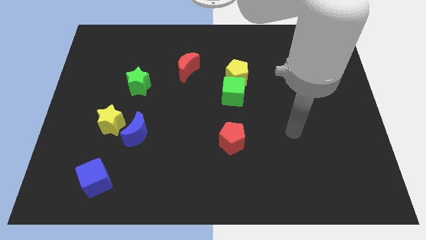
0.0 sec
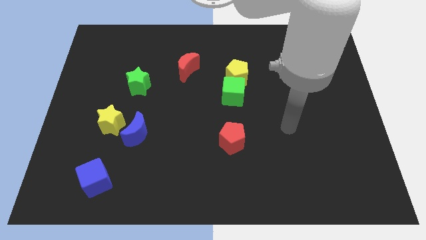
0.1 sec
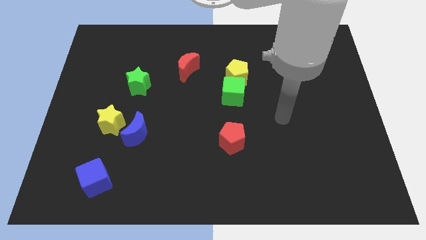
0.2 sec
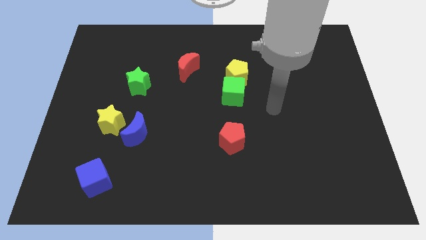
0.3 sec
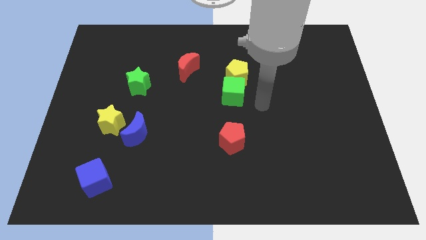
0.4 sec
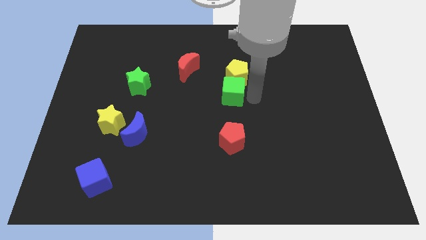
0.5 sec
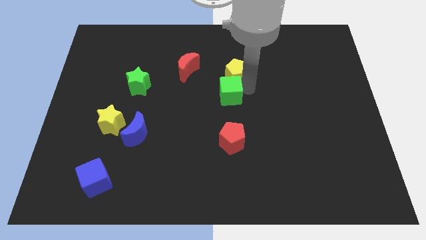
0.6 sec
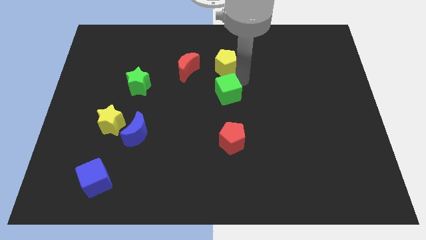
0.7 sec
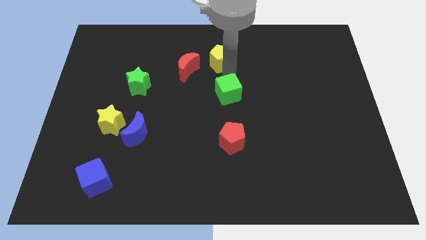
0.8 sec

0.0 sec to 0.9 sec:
separate the green cube from the yellow pentagon

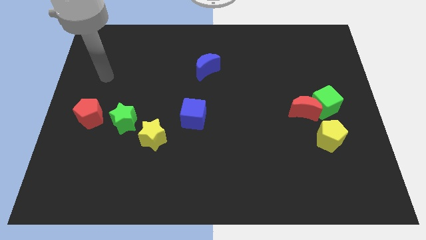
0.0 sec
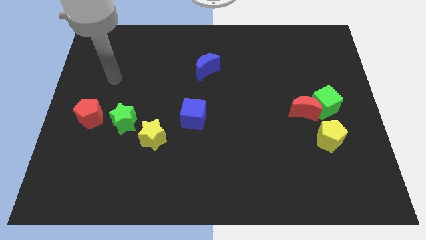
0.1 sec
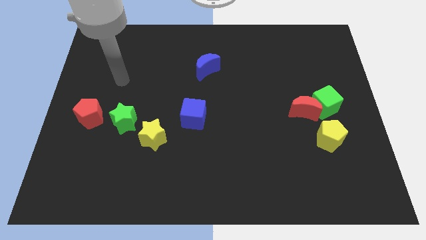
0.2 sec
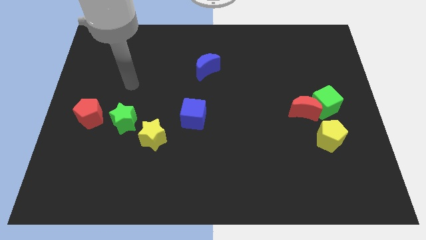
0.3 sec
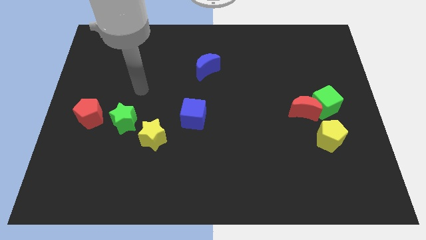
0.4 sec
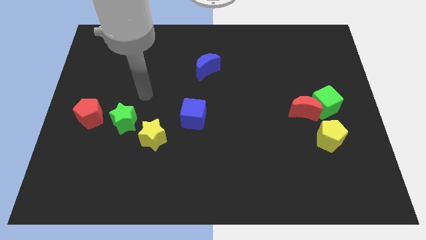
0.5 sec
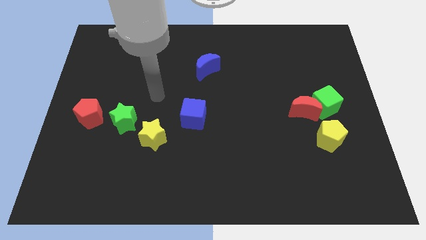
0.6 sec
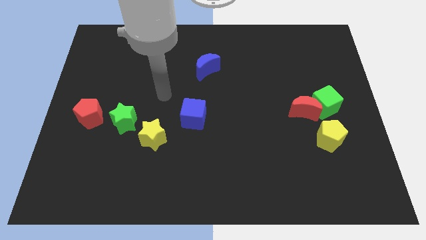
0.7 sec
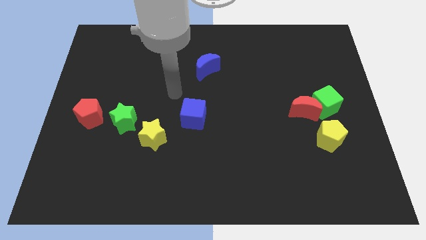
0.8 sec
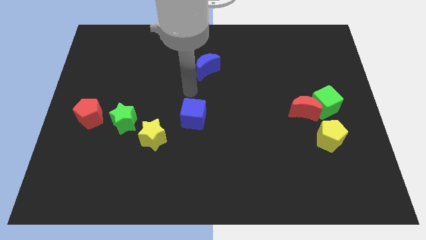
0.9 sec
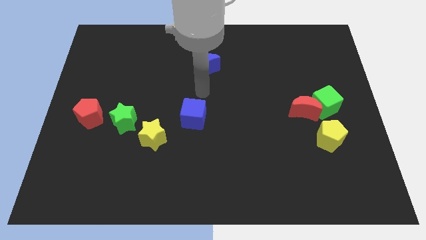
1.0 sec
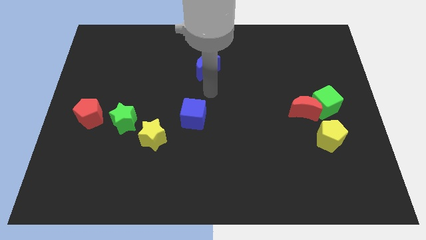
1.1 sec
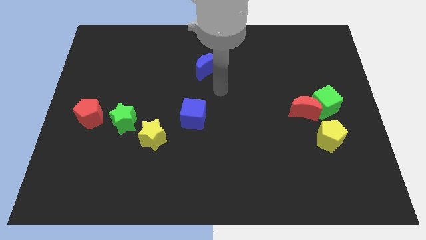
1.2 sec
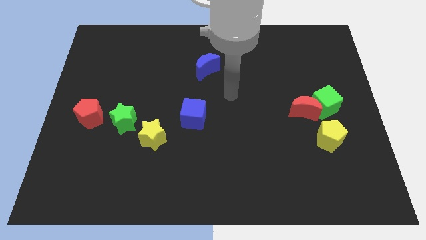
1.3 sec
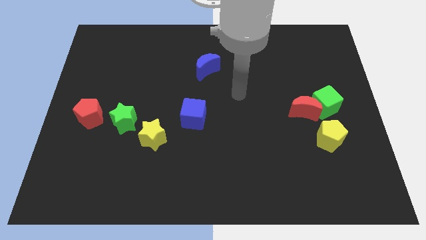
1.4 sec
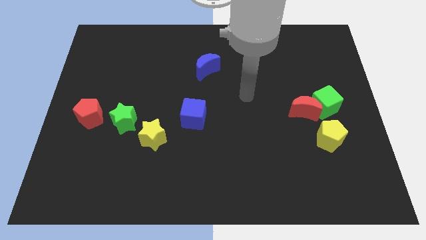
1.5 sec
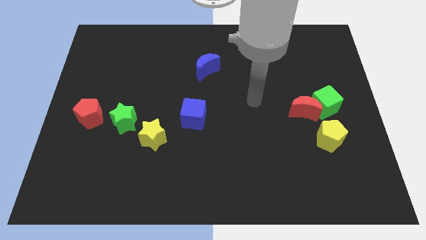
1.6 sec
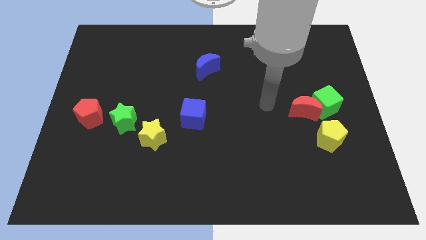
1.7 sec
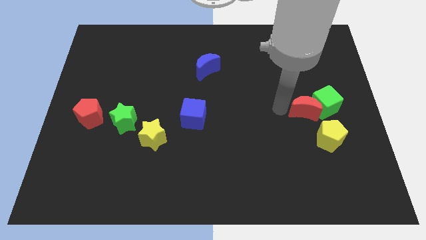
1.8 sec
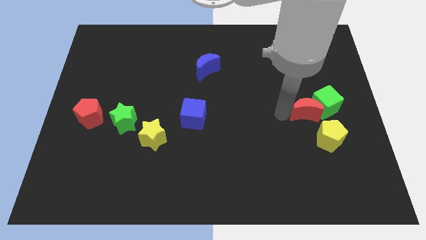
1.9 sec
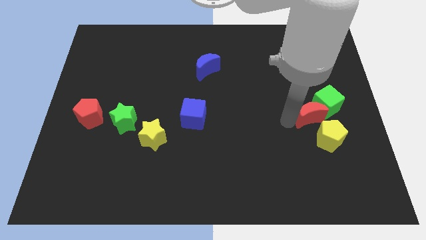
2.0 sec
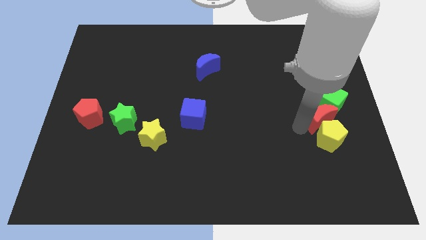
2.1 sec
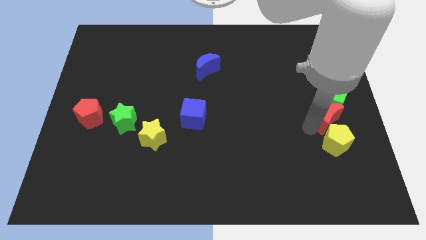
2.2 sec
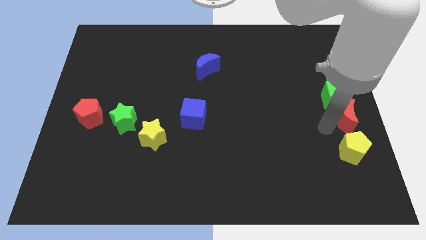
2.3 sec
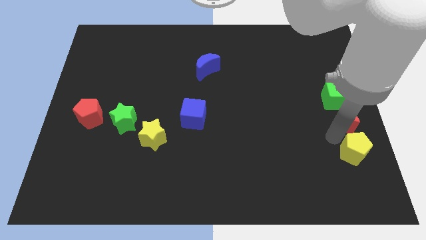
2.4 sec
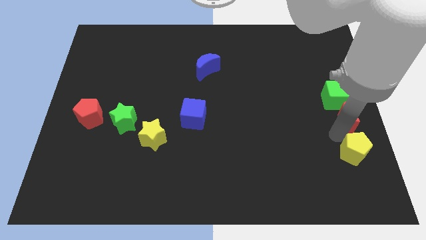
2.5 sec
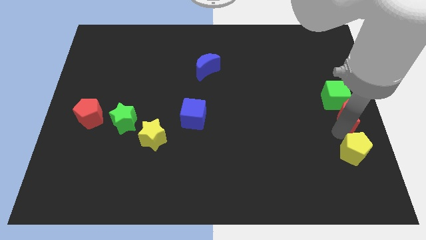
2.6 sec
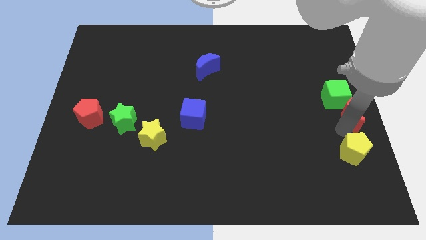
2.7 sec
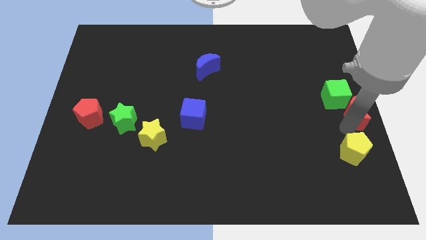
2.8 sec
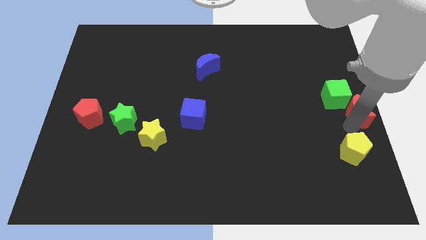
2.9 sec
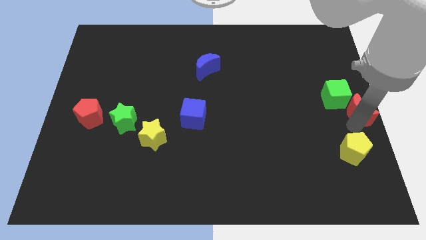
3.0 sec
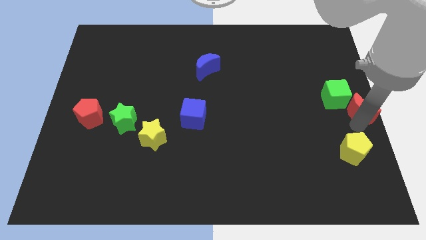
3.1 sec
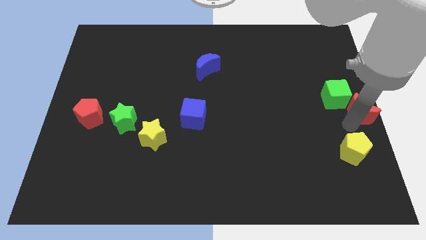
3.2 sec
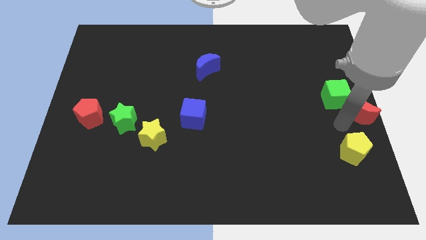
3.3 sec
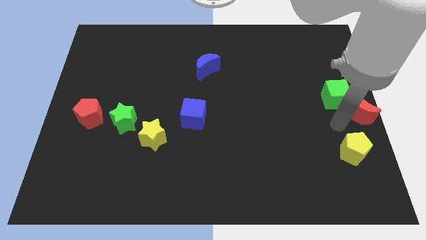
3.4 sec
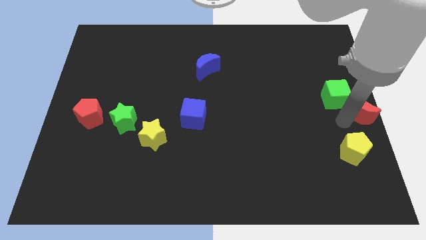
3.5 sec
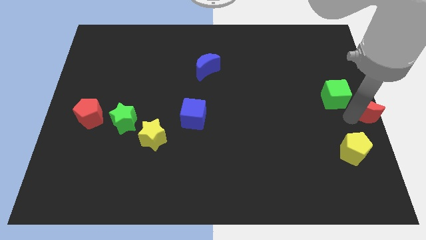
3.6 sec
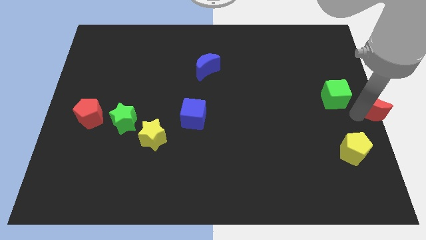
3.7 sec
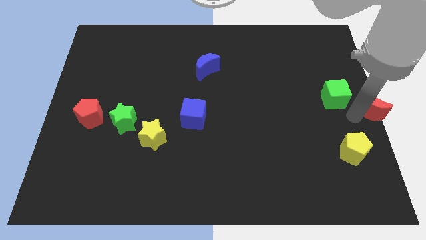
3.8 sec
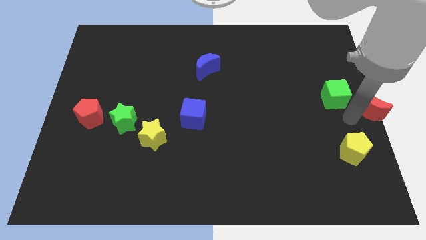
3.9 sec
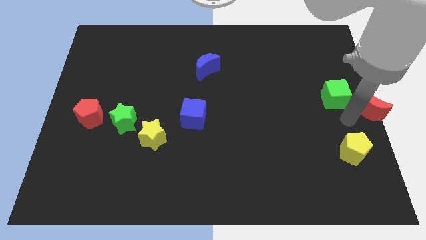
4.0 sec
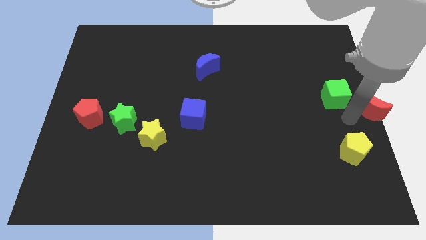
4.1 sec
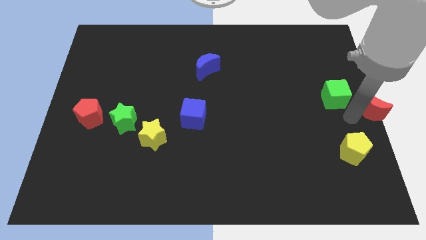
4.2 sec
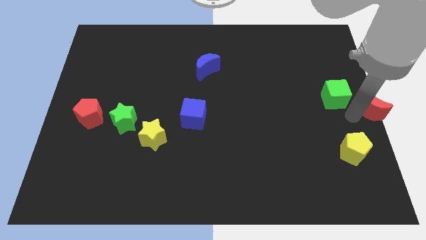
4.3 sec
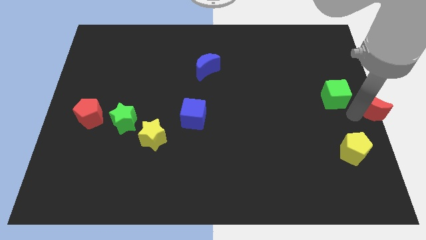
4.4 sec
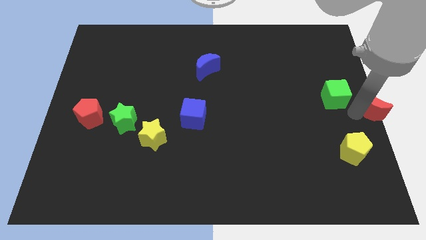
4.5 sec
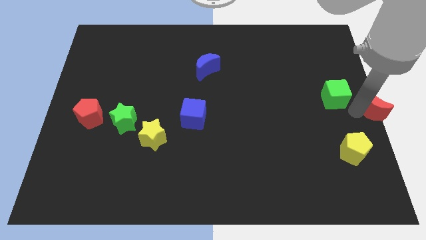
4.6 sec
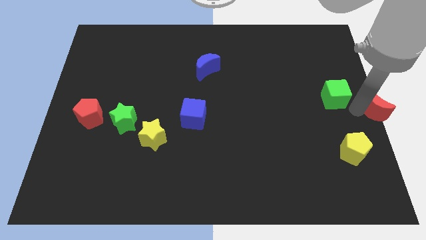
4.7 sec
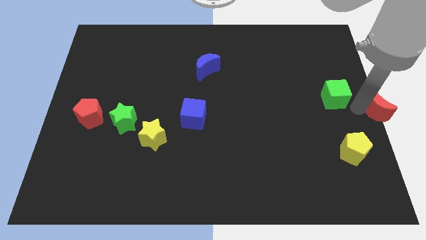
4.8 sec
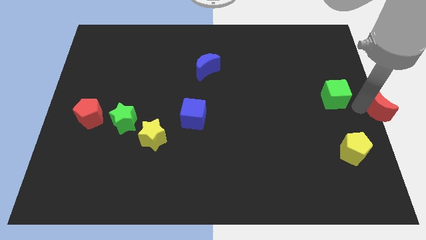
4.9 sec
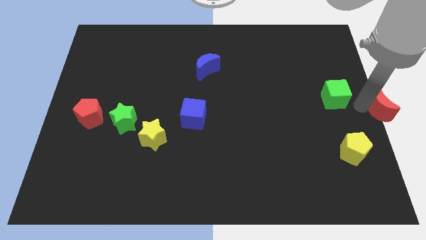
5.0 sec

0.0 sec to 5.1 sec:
separate the red moon from the green cube and yellow pentagon

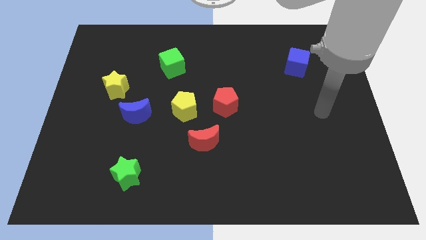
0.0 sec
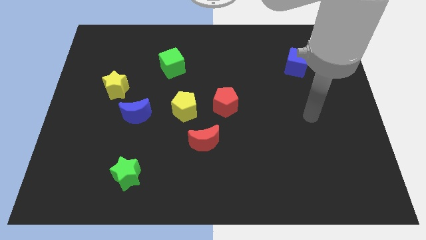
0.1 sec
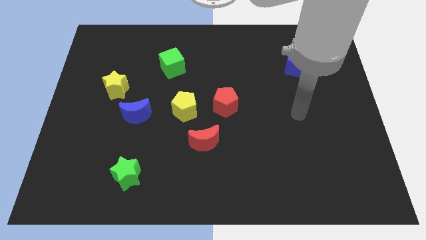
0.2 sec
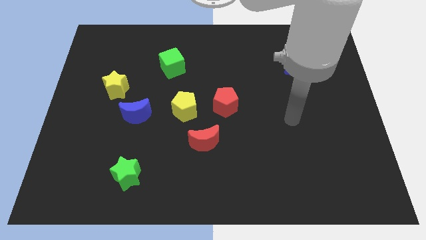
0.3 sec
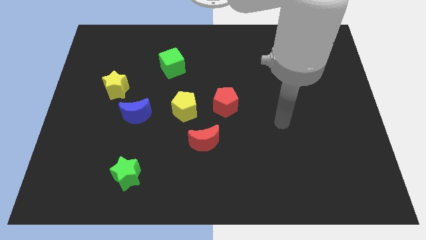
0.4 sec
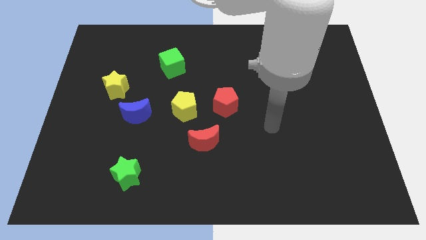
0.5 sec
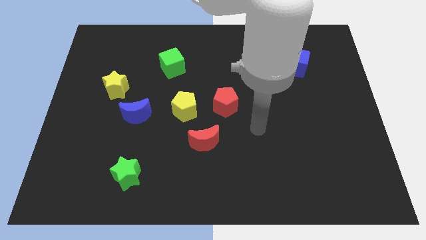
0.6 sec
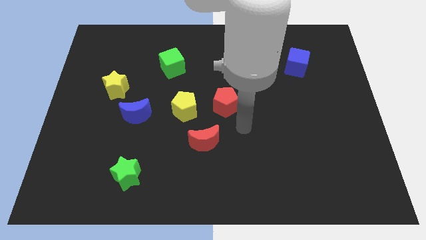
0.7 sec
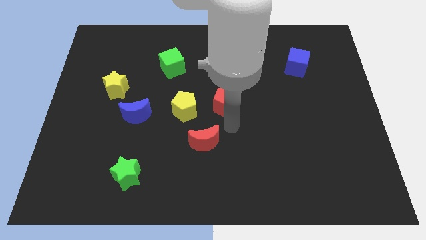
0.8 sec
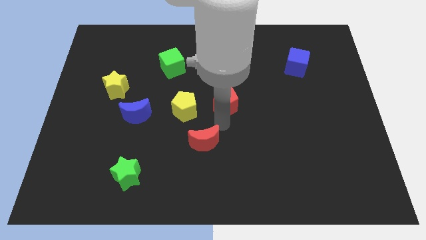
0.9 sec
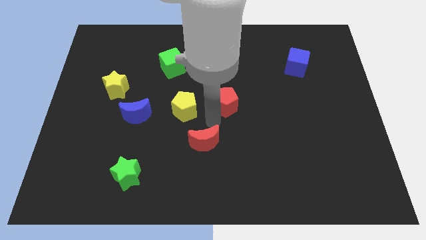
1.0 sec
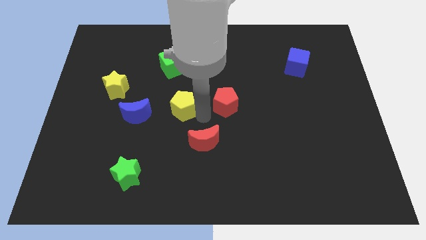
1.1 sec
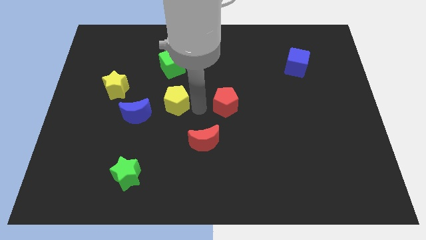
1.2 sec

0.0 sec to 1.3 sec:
move the red pentagon away from the yellow pentagon

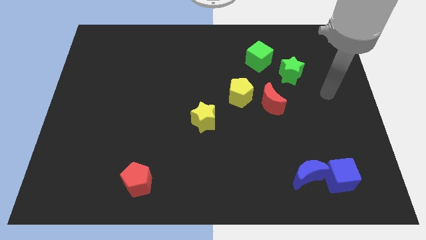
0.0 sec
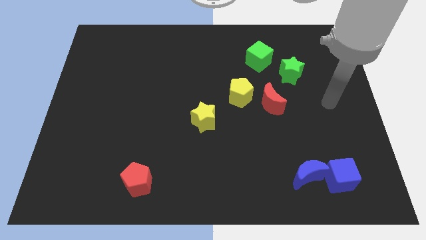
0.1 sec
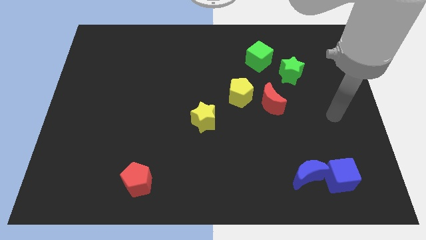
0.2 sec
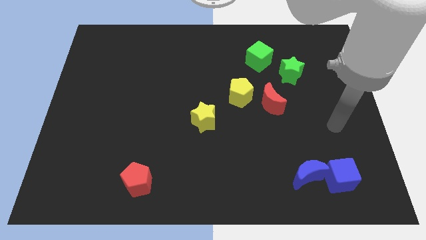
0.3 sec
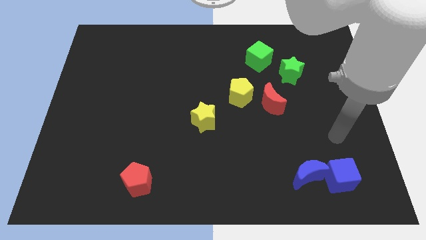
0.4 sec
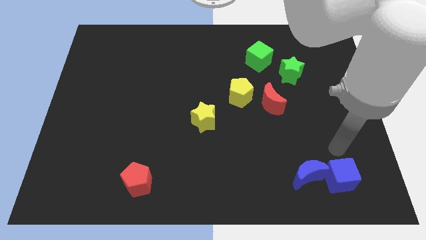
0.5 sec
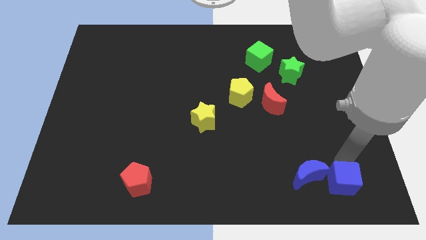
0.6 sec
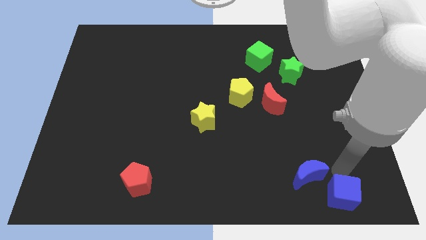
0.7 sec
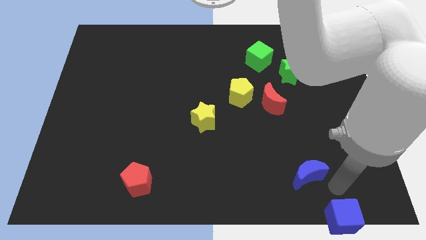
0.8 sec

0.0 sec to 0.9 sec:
move the blue moon away from the blue cube

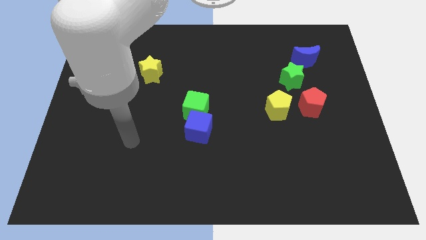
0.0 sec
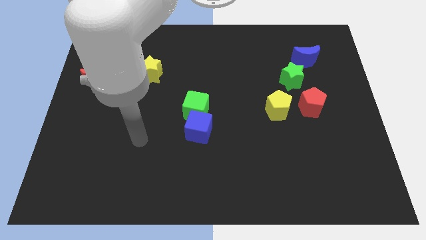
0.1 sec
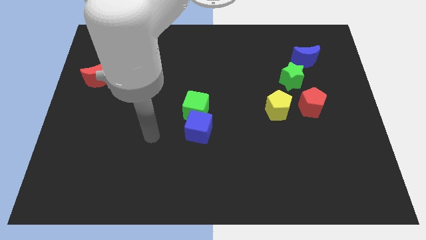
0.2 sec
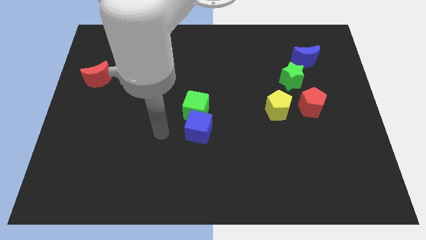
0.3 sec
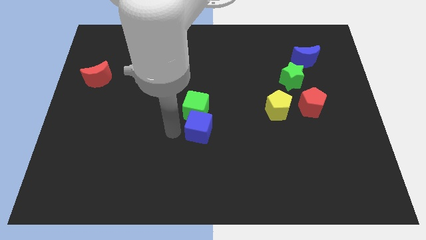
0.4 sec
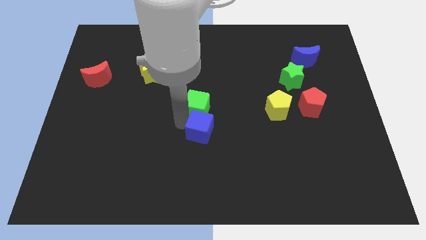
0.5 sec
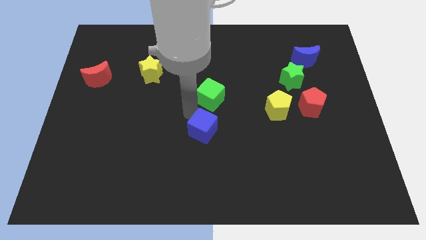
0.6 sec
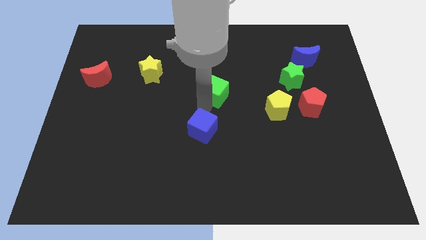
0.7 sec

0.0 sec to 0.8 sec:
pull the blue cube apart from the green cube

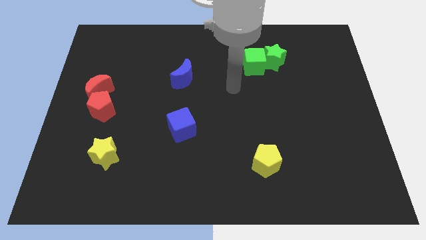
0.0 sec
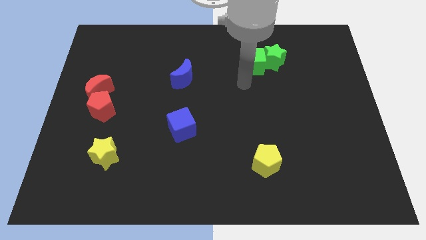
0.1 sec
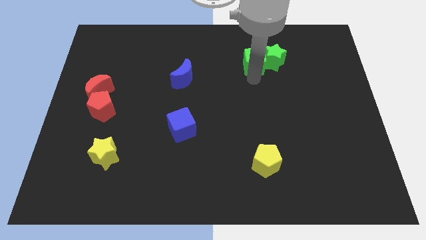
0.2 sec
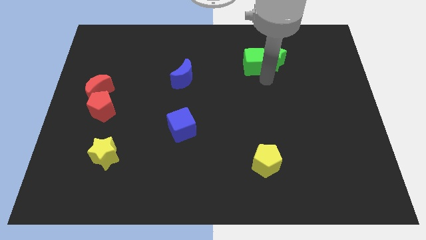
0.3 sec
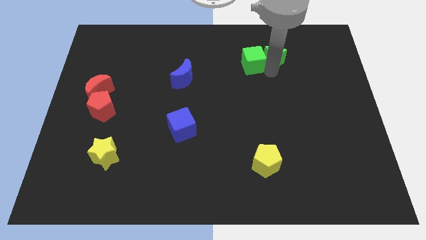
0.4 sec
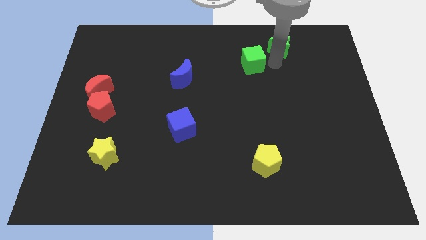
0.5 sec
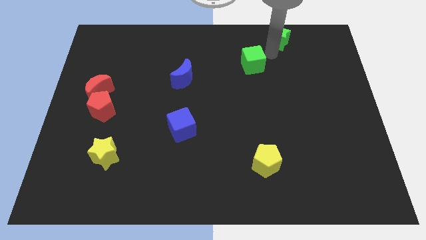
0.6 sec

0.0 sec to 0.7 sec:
move the green cube away from the green star
